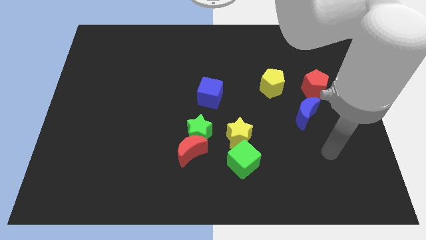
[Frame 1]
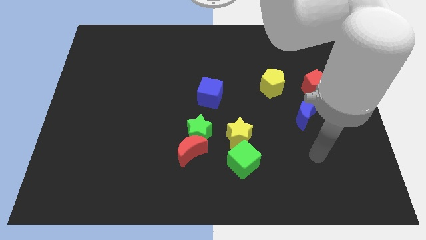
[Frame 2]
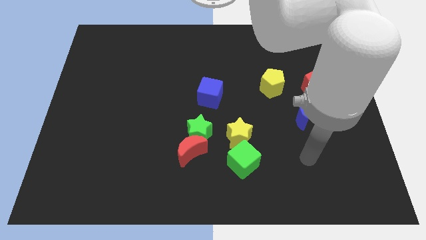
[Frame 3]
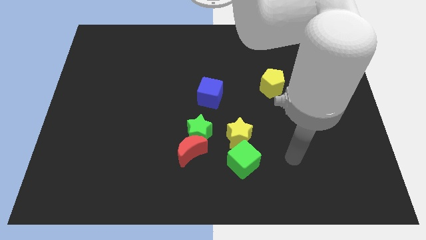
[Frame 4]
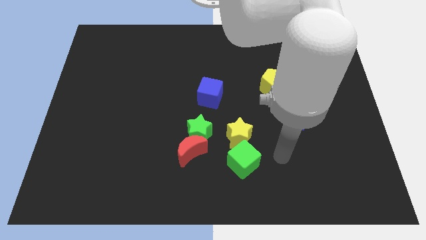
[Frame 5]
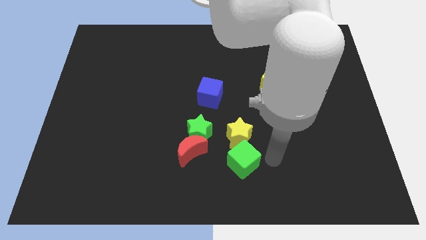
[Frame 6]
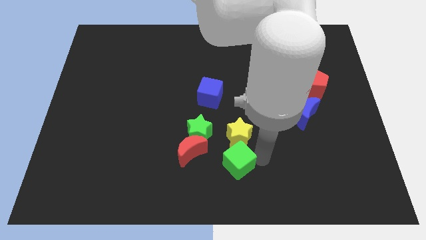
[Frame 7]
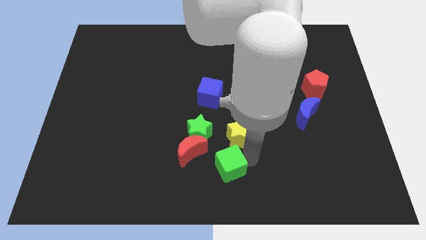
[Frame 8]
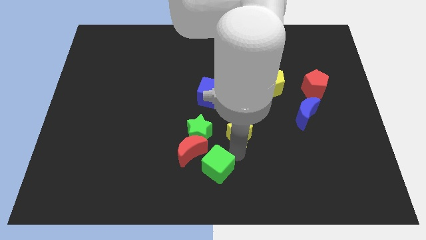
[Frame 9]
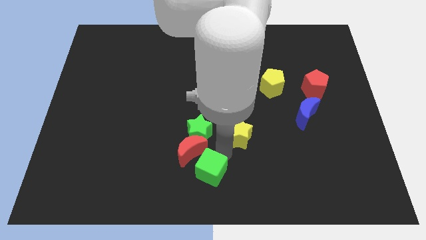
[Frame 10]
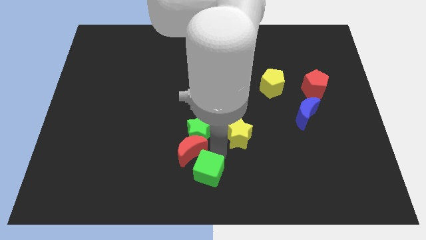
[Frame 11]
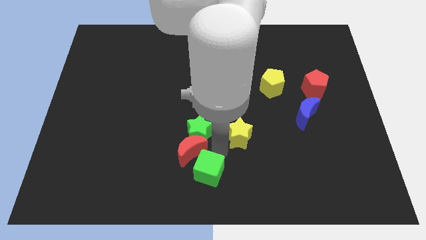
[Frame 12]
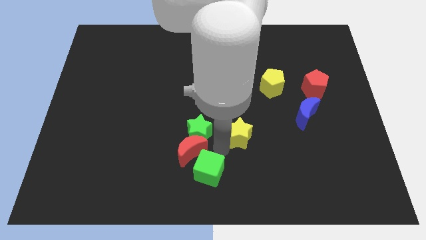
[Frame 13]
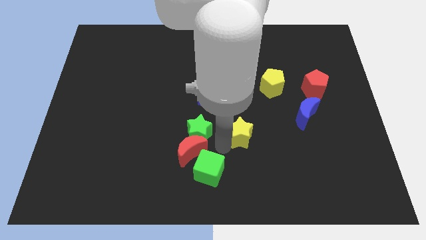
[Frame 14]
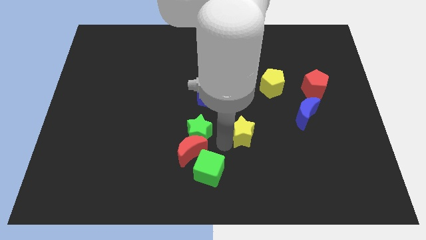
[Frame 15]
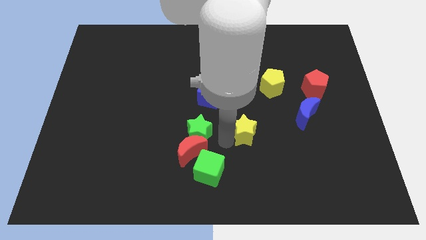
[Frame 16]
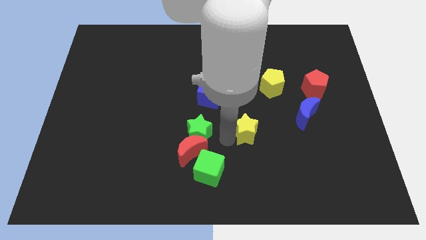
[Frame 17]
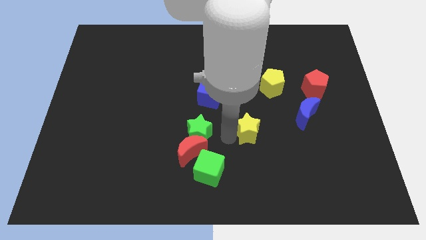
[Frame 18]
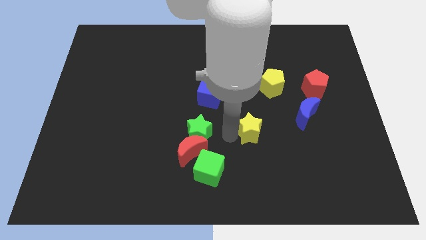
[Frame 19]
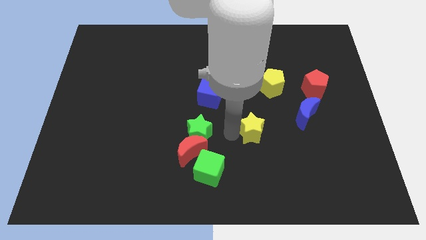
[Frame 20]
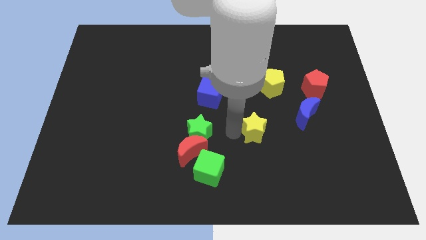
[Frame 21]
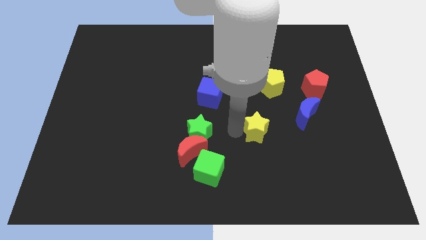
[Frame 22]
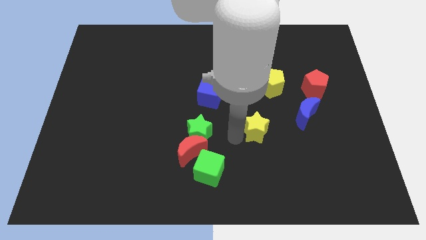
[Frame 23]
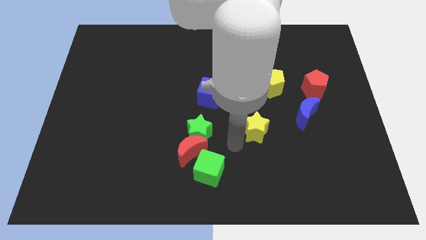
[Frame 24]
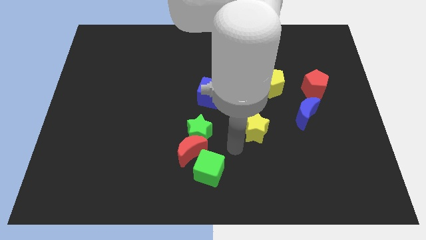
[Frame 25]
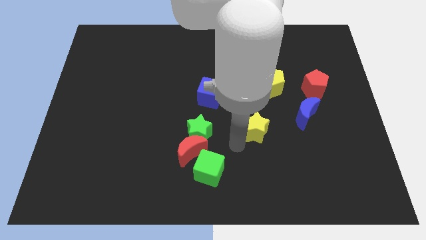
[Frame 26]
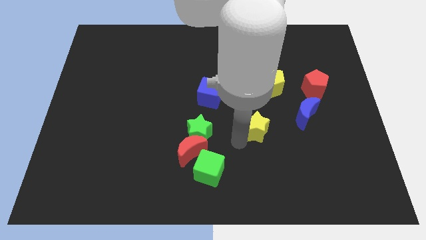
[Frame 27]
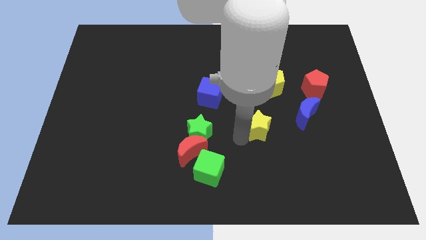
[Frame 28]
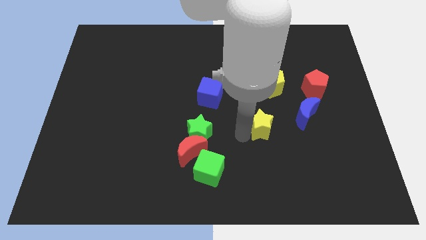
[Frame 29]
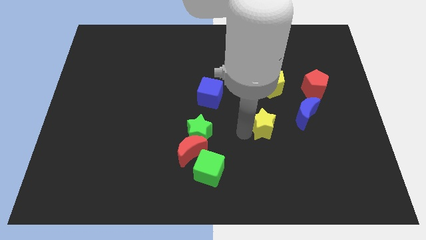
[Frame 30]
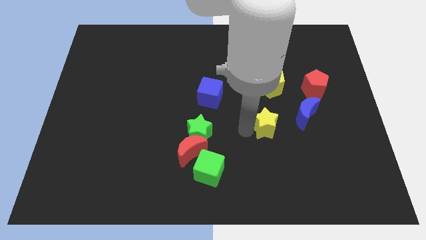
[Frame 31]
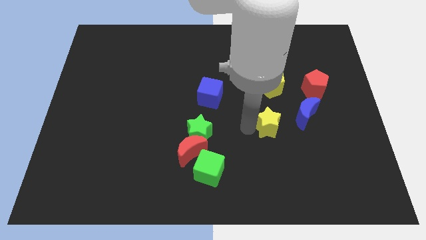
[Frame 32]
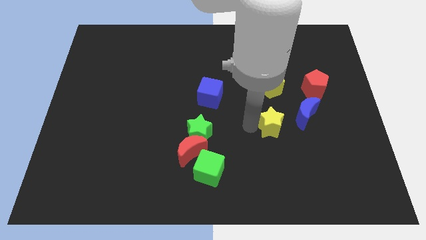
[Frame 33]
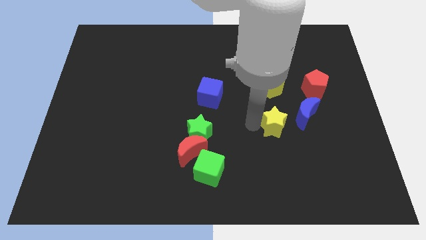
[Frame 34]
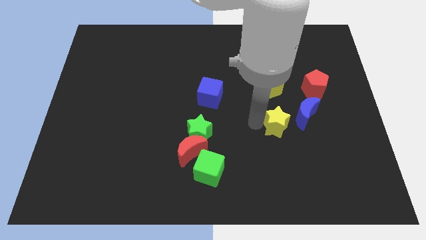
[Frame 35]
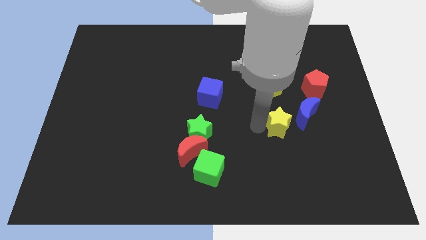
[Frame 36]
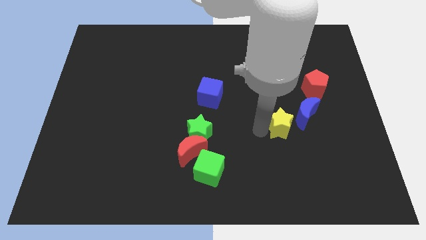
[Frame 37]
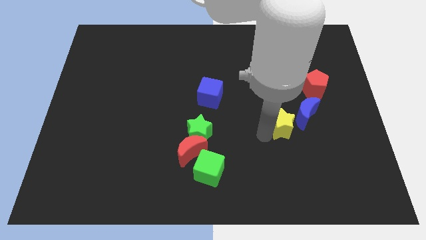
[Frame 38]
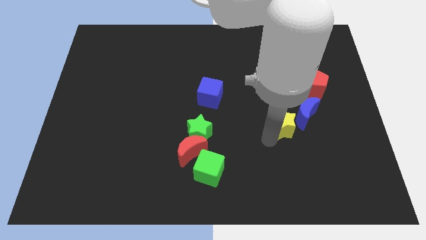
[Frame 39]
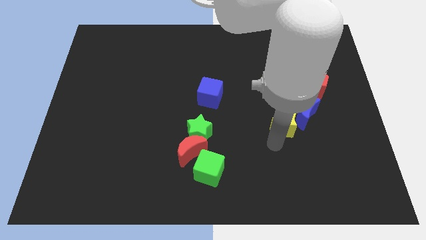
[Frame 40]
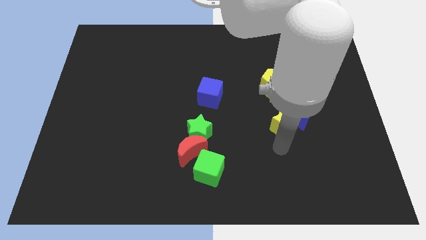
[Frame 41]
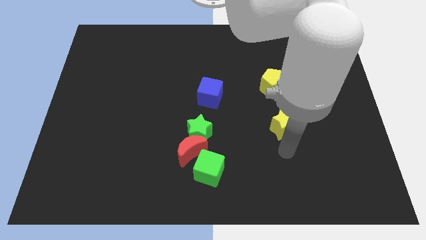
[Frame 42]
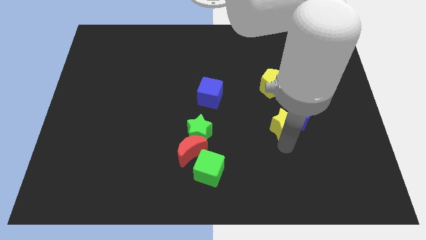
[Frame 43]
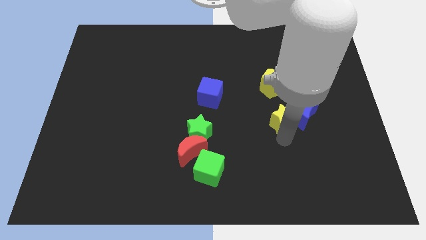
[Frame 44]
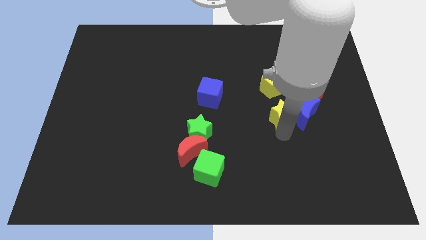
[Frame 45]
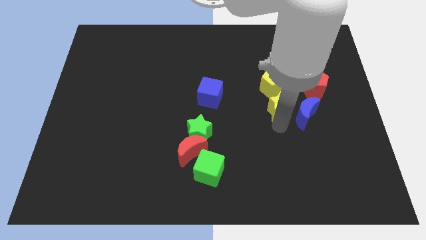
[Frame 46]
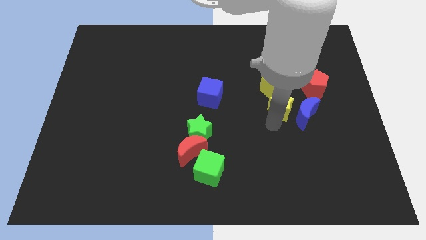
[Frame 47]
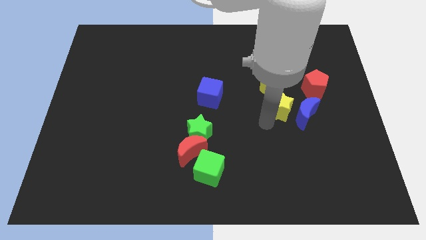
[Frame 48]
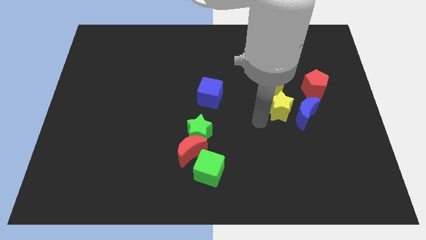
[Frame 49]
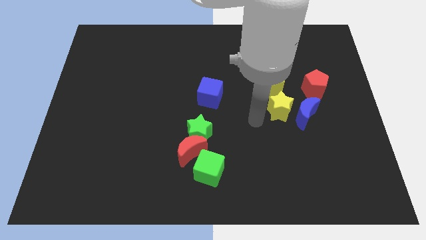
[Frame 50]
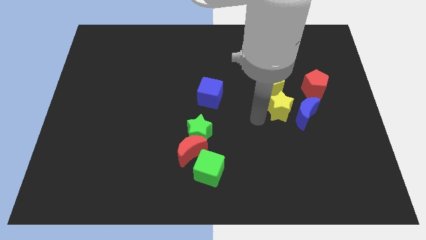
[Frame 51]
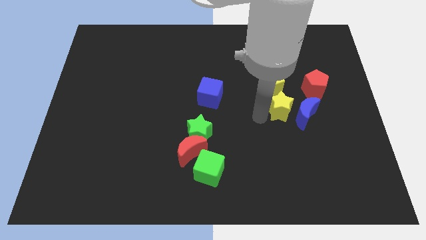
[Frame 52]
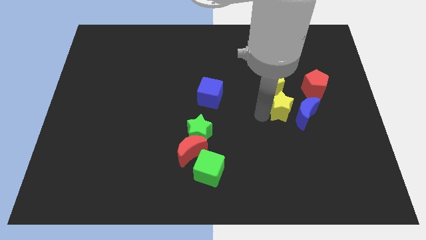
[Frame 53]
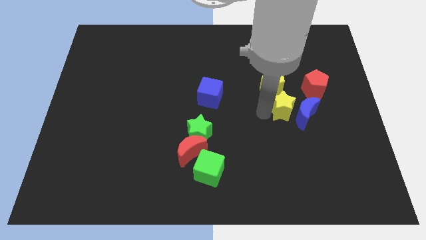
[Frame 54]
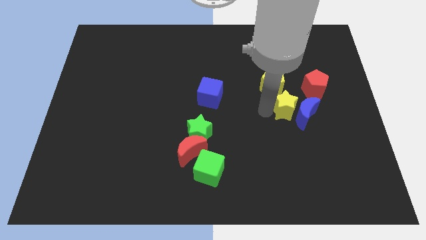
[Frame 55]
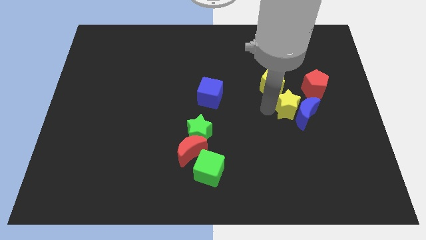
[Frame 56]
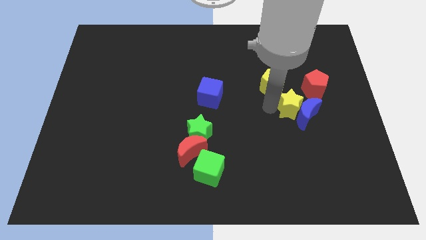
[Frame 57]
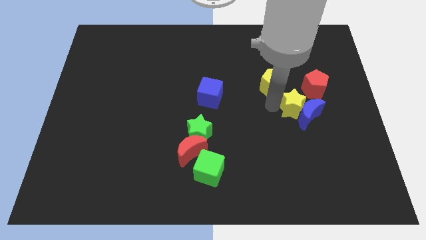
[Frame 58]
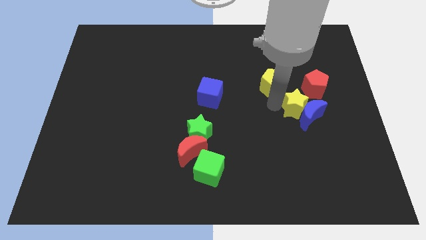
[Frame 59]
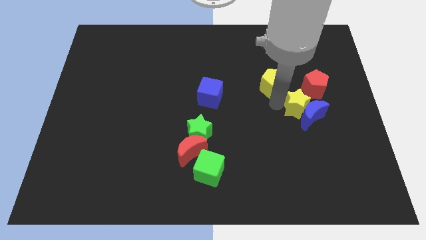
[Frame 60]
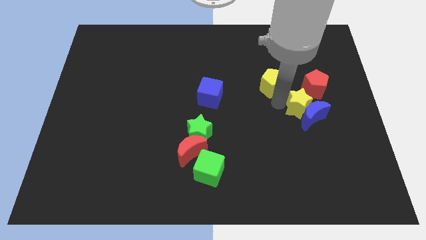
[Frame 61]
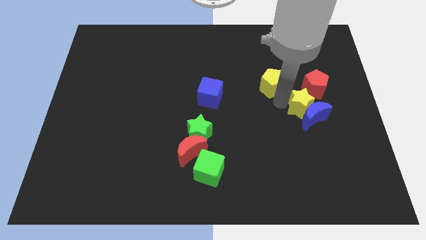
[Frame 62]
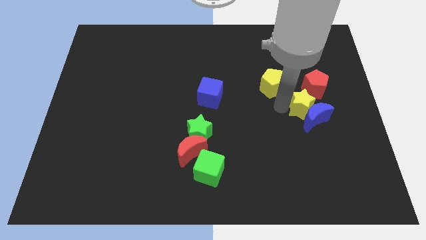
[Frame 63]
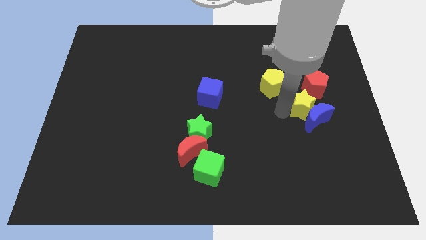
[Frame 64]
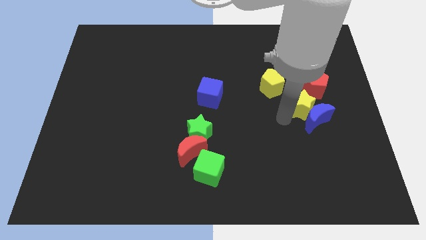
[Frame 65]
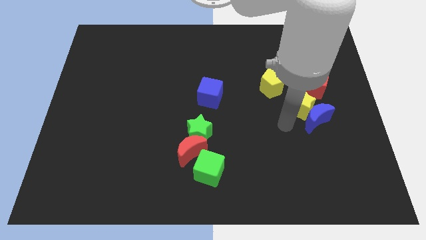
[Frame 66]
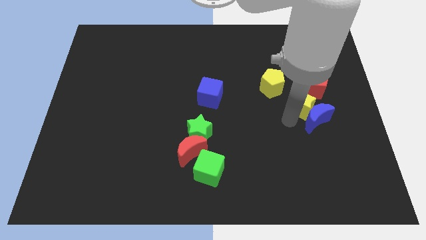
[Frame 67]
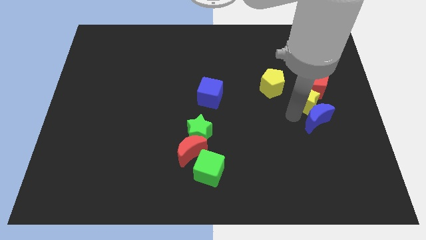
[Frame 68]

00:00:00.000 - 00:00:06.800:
push the yellow star next to the red pentagon

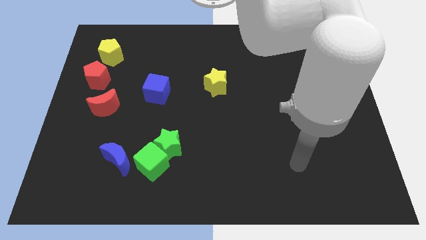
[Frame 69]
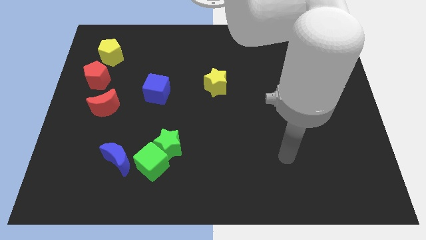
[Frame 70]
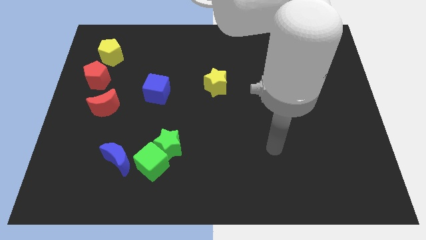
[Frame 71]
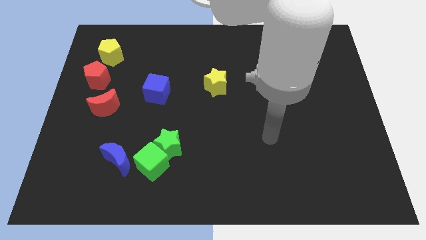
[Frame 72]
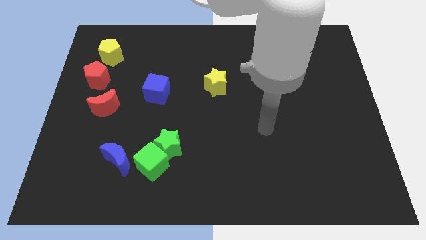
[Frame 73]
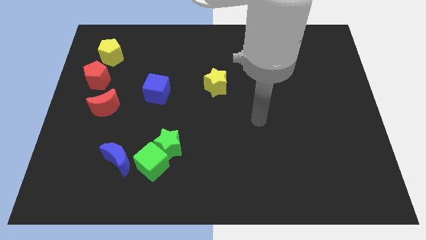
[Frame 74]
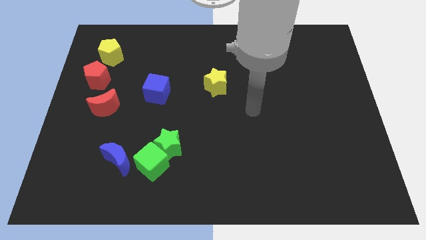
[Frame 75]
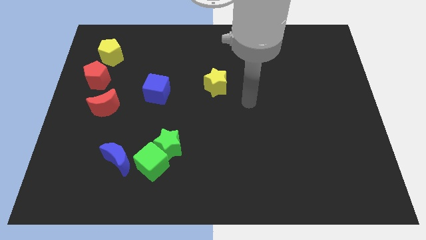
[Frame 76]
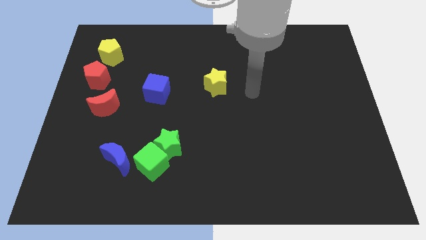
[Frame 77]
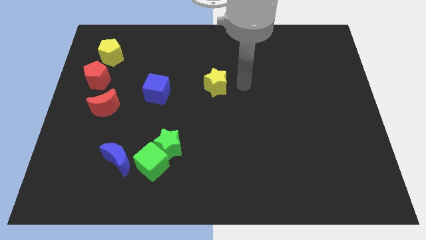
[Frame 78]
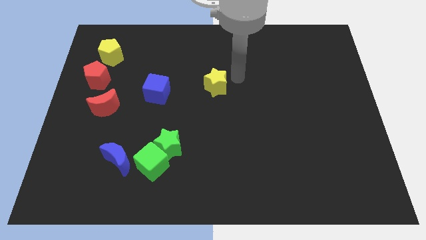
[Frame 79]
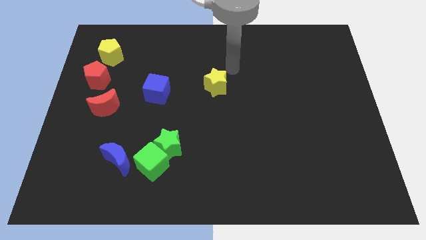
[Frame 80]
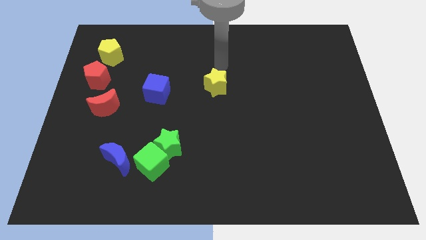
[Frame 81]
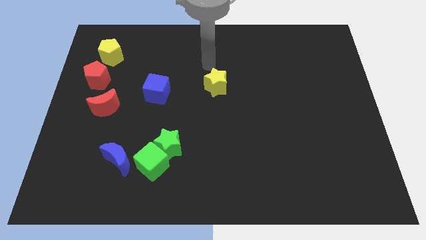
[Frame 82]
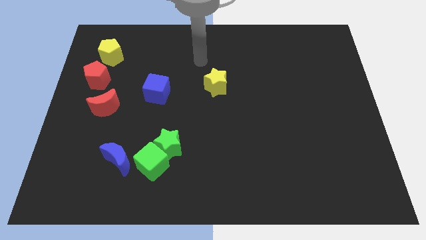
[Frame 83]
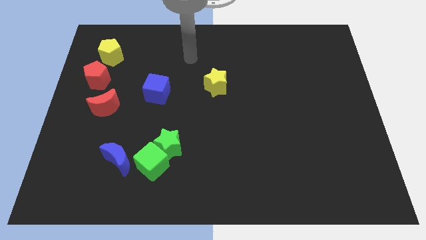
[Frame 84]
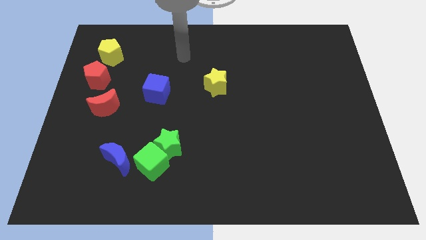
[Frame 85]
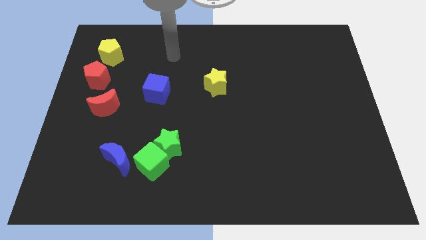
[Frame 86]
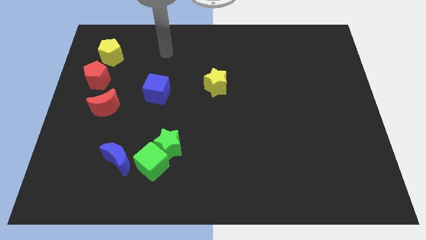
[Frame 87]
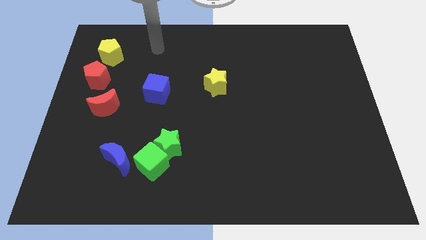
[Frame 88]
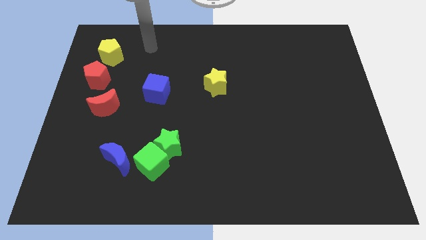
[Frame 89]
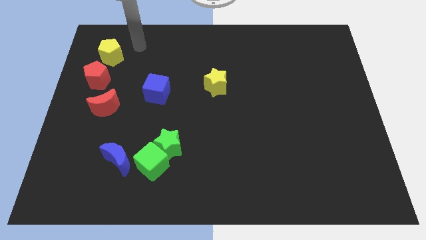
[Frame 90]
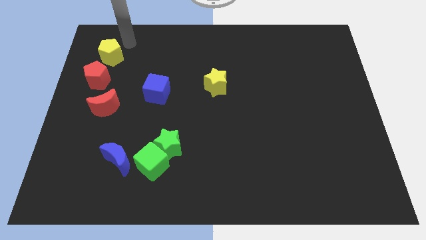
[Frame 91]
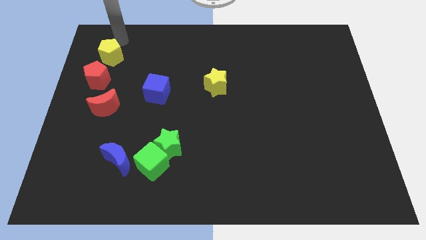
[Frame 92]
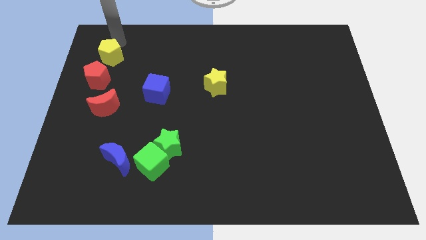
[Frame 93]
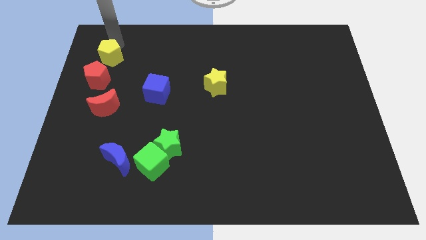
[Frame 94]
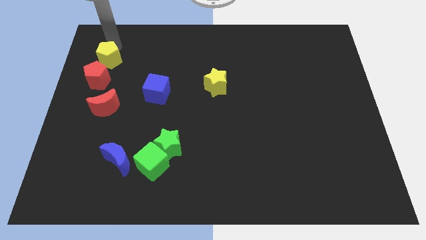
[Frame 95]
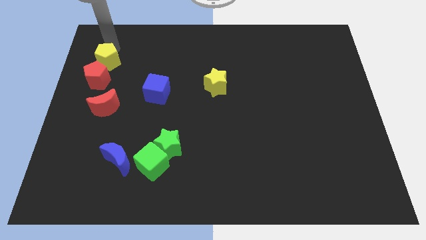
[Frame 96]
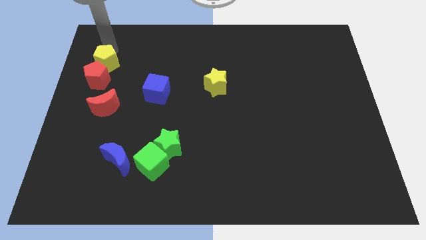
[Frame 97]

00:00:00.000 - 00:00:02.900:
slide the yellow pentagon towards the red pentagon
